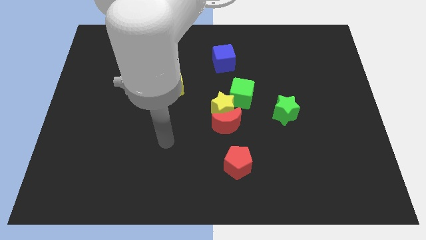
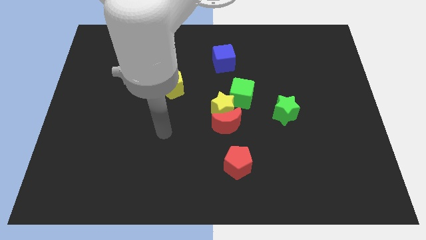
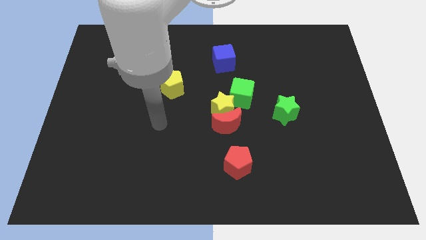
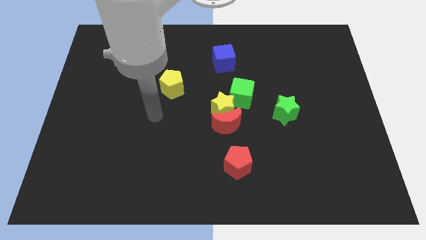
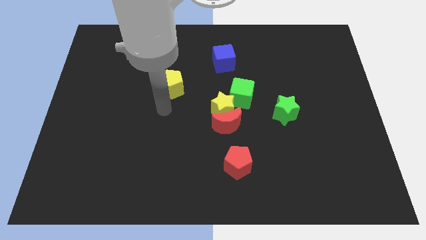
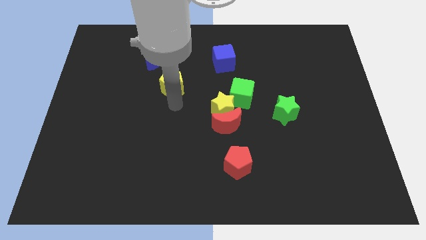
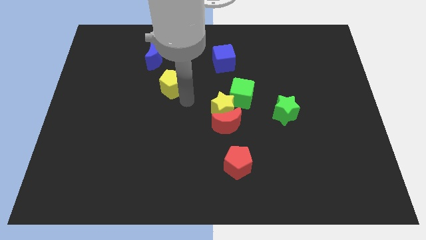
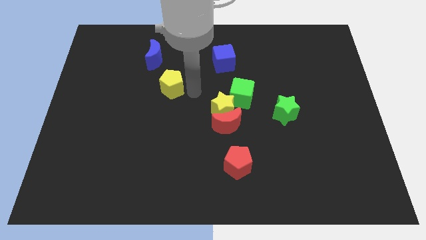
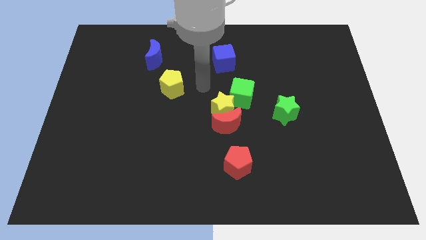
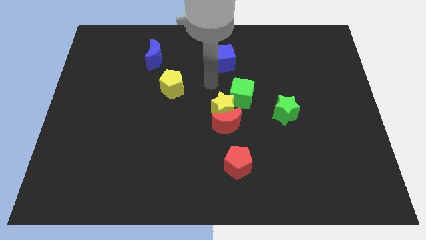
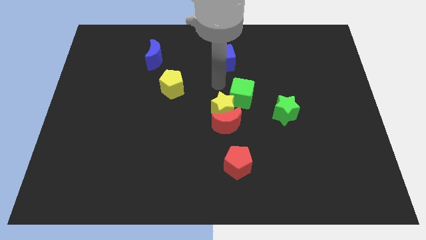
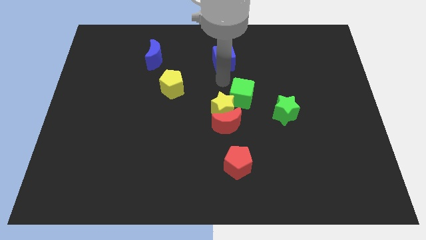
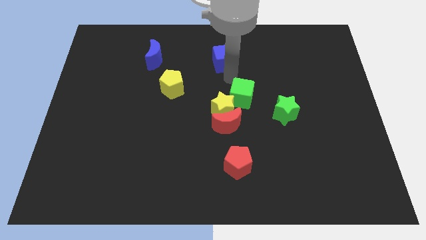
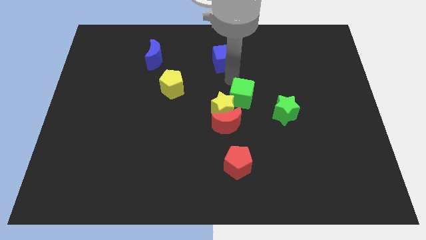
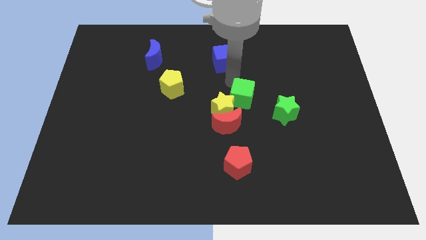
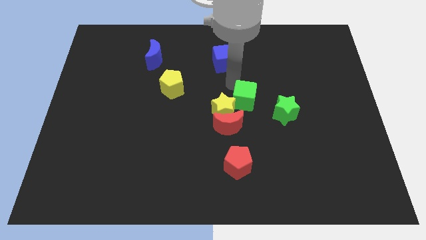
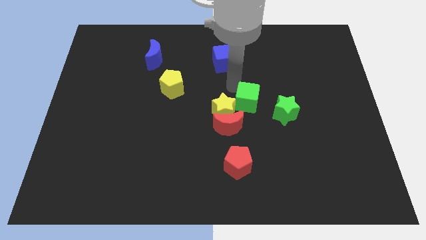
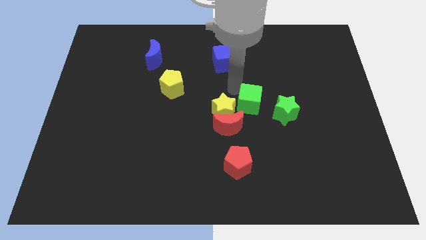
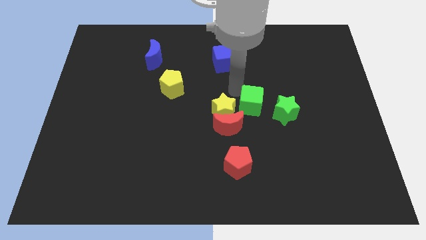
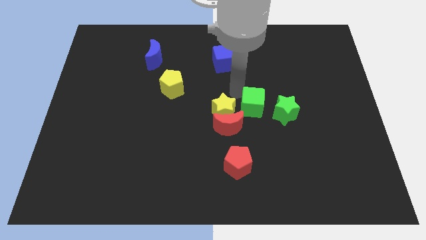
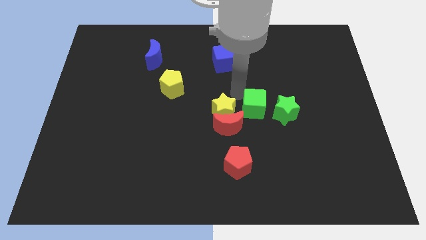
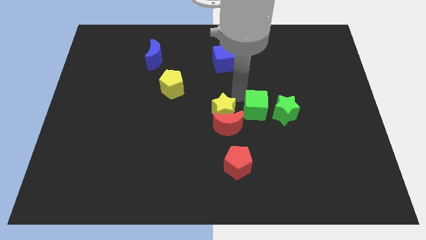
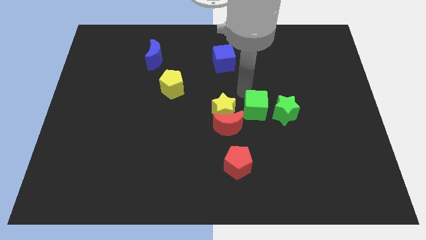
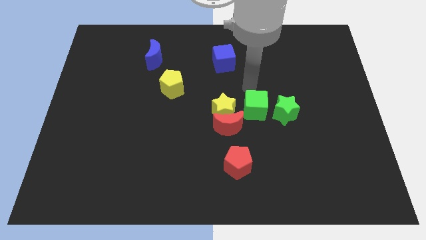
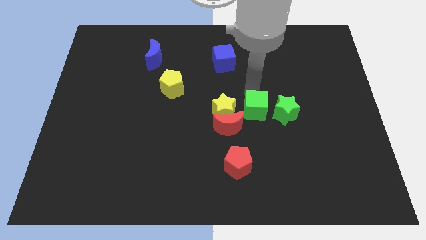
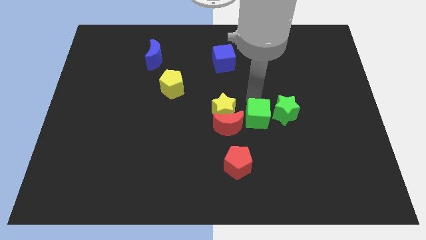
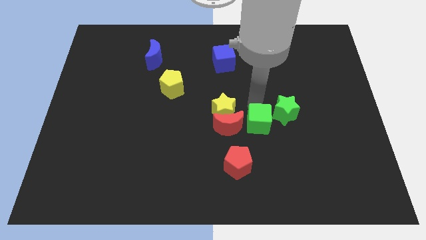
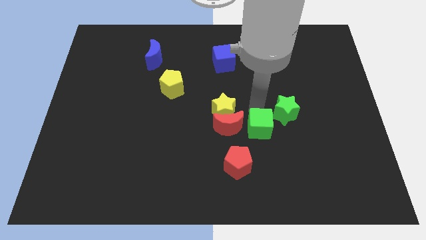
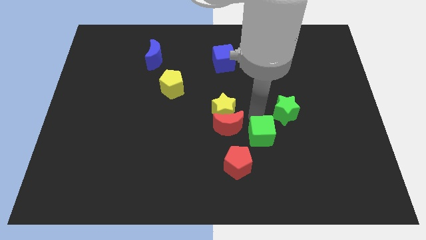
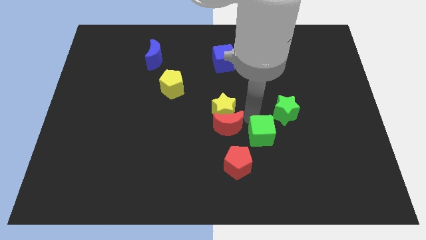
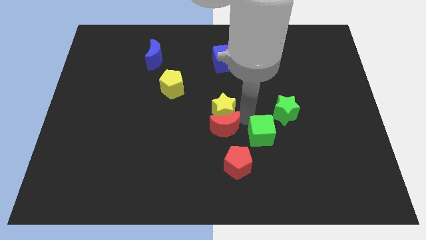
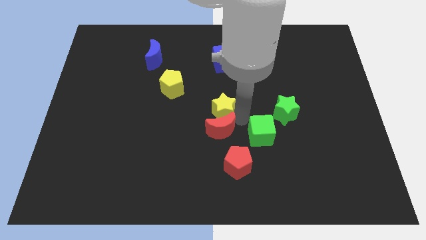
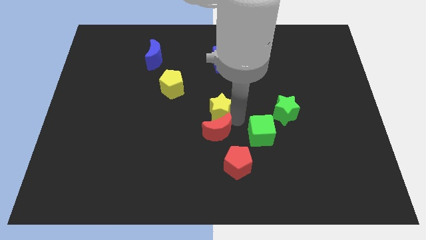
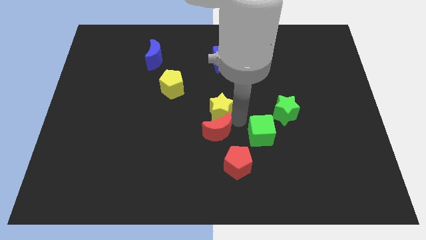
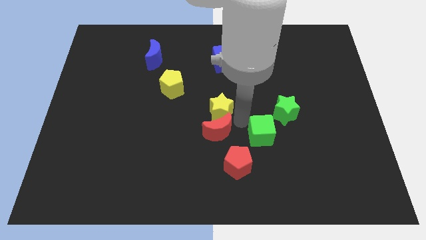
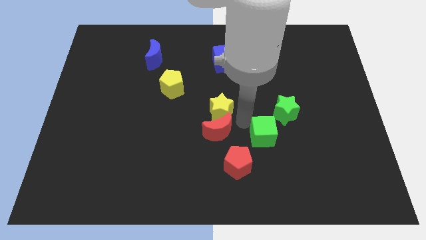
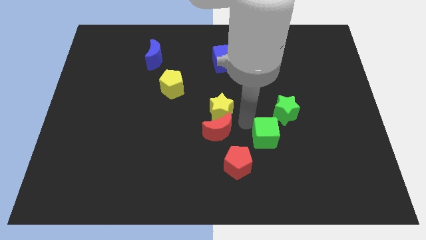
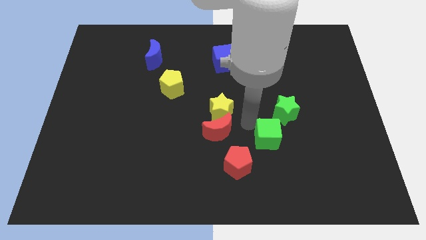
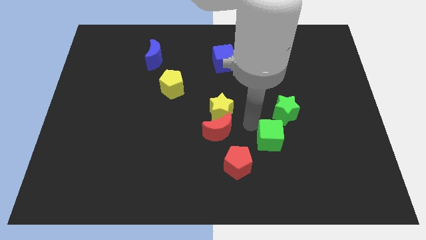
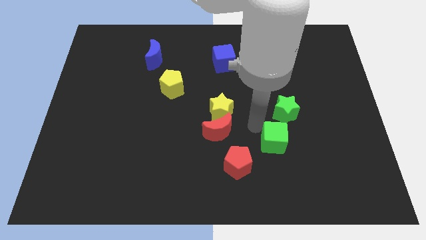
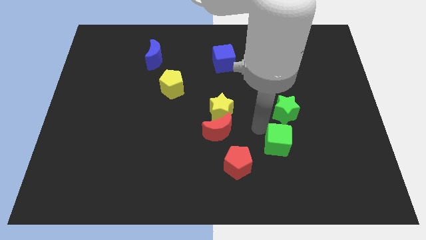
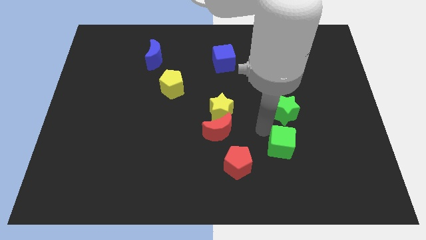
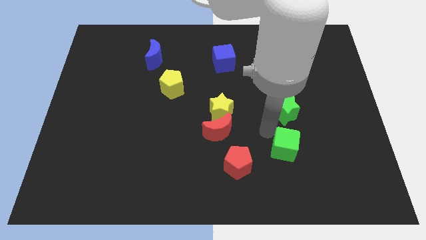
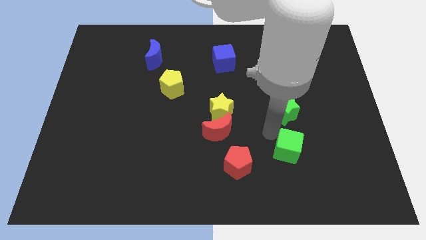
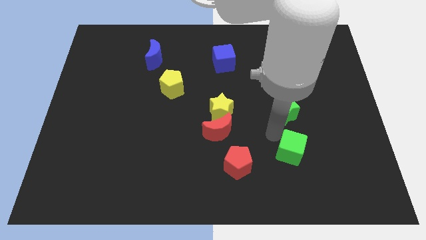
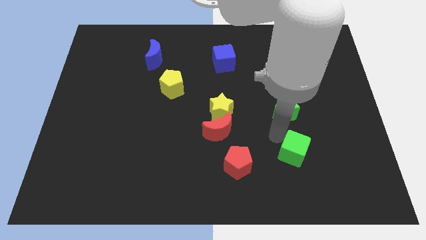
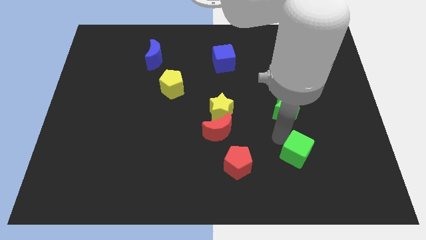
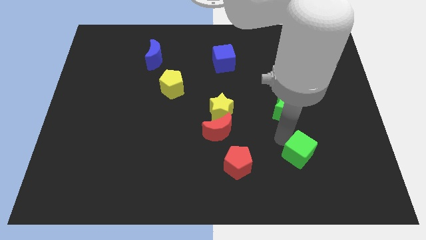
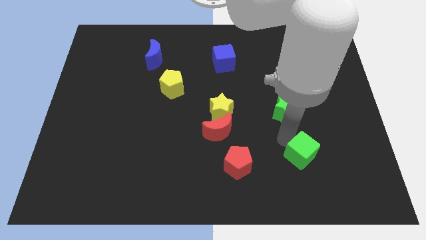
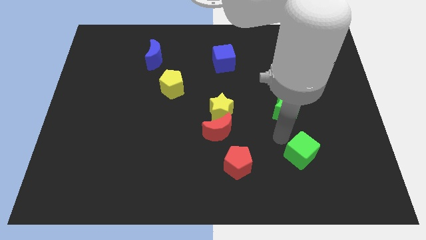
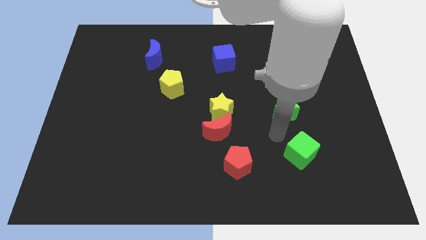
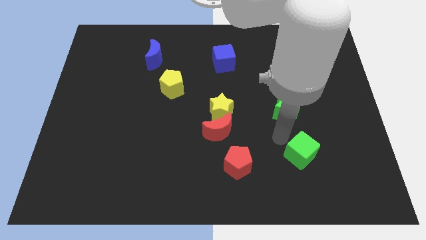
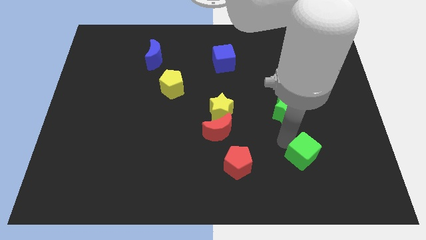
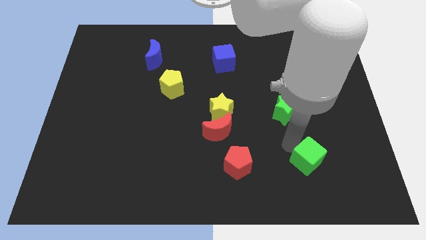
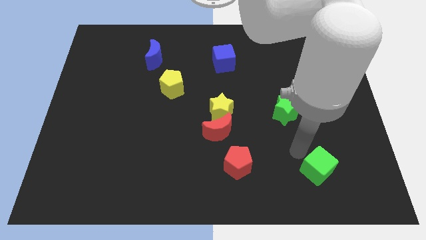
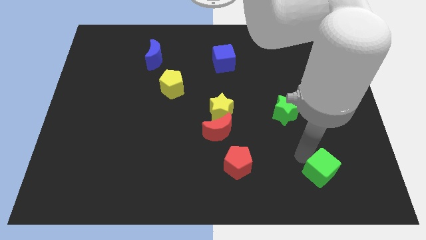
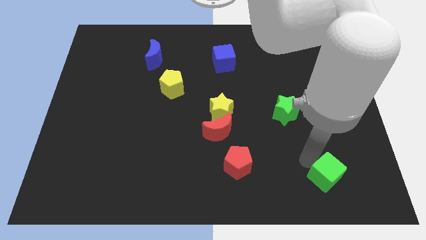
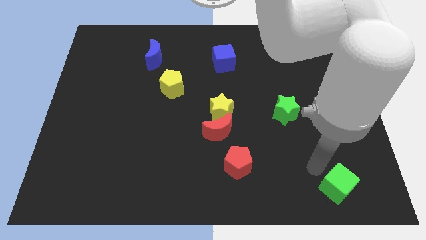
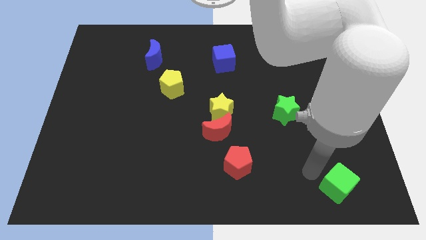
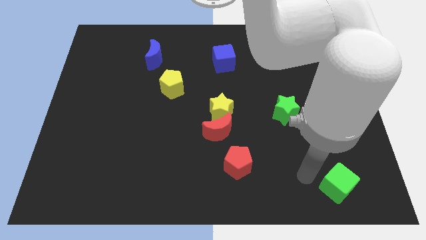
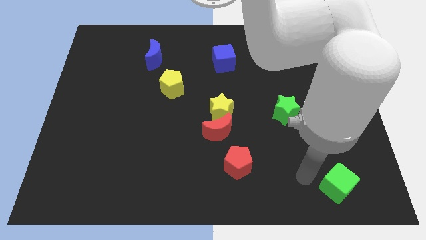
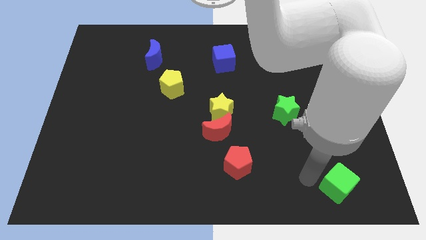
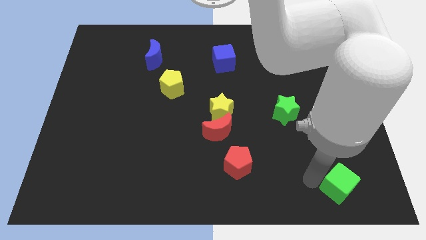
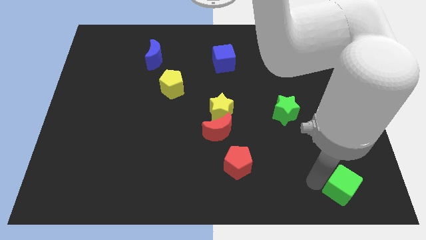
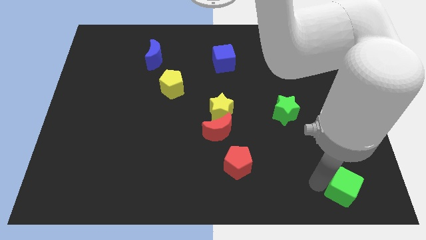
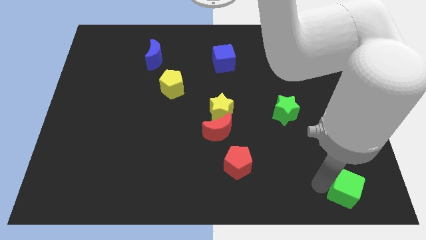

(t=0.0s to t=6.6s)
slide the green cube to the bottom right
